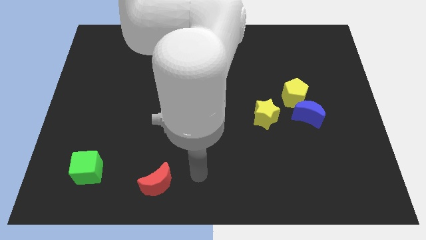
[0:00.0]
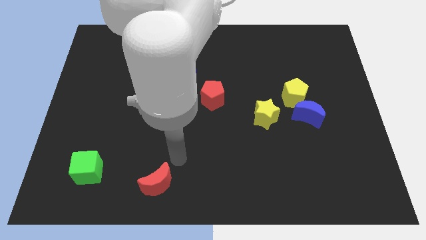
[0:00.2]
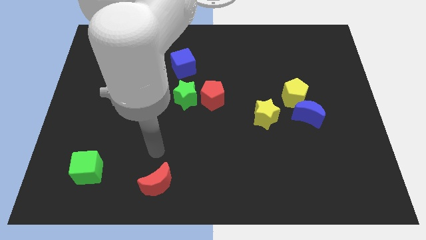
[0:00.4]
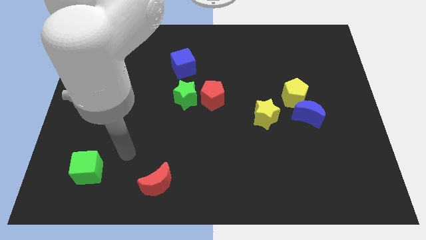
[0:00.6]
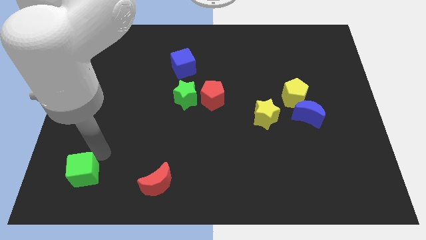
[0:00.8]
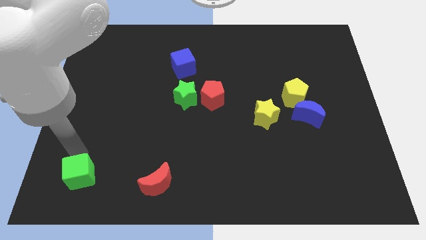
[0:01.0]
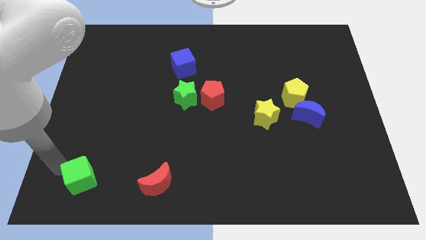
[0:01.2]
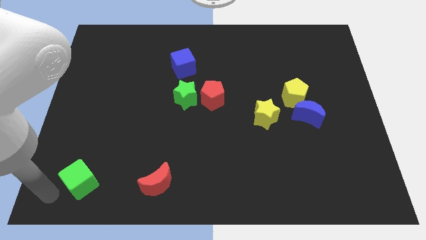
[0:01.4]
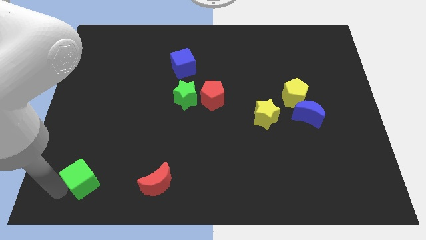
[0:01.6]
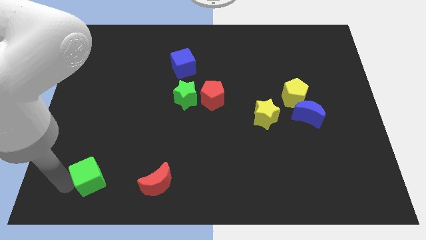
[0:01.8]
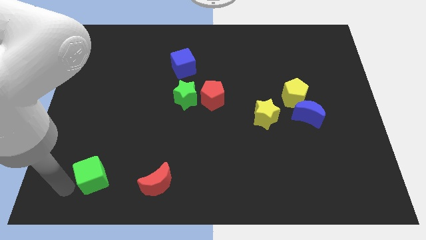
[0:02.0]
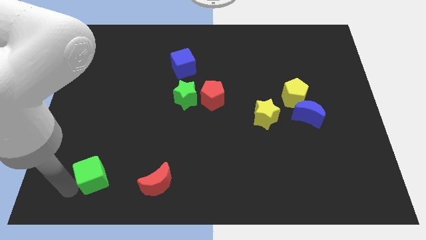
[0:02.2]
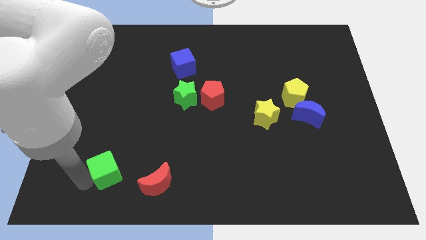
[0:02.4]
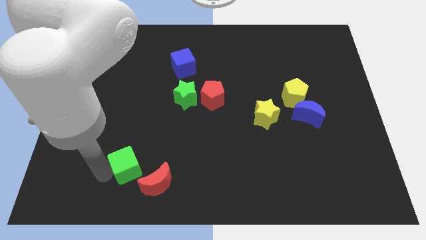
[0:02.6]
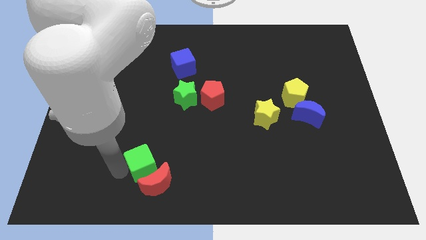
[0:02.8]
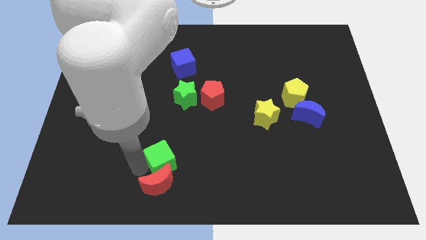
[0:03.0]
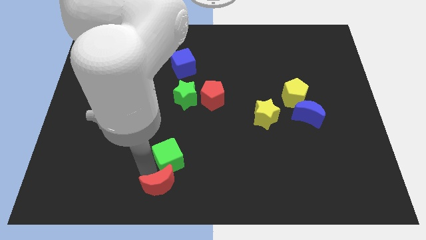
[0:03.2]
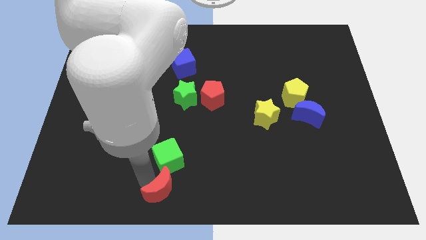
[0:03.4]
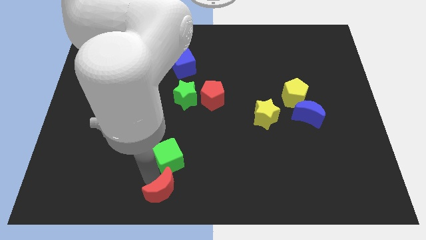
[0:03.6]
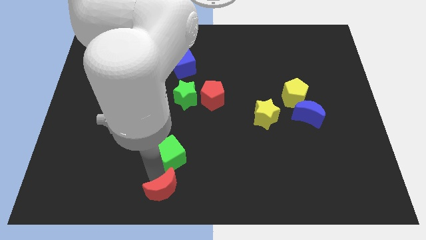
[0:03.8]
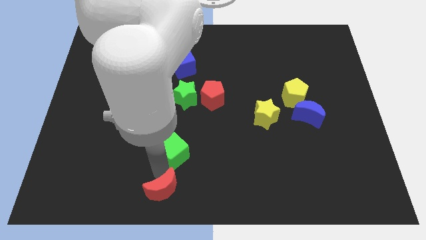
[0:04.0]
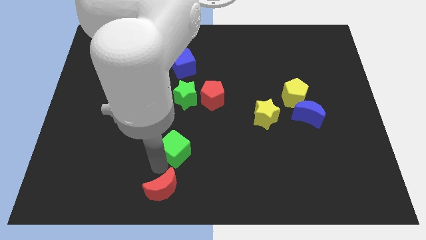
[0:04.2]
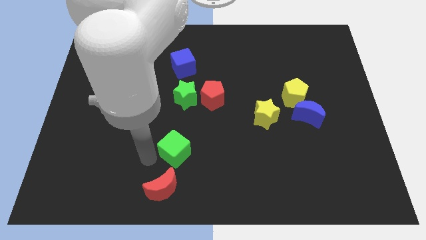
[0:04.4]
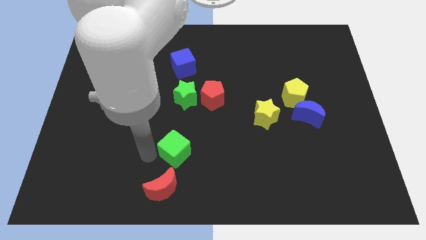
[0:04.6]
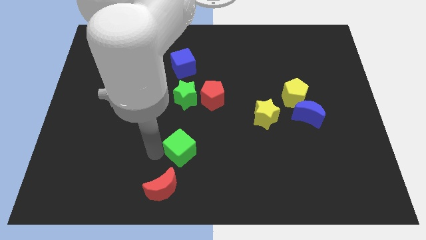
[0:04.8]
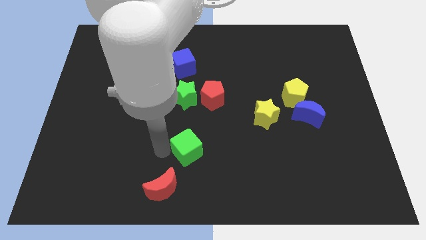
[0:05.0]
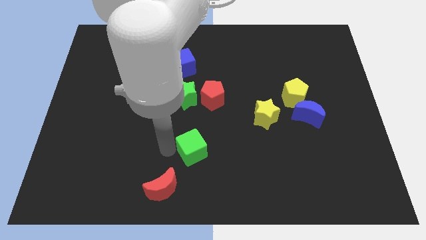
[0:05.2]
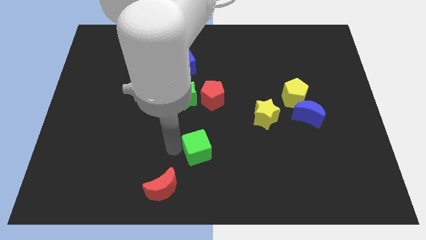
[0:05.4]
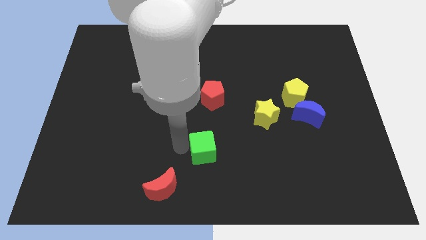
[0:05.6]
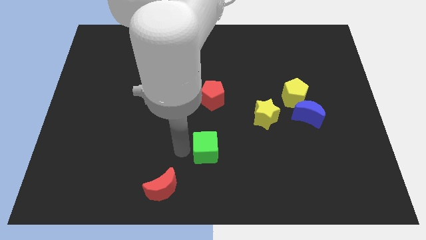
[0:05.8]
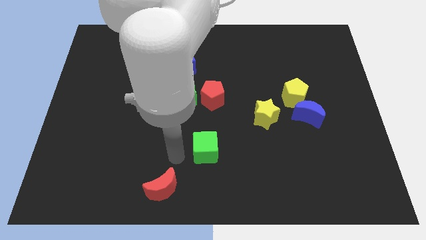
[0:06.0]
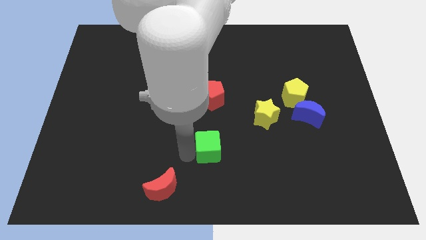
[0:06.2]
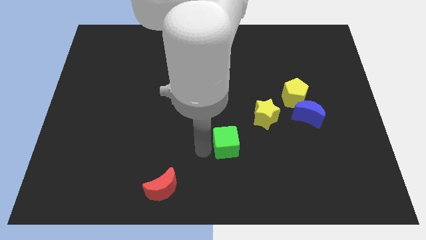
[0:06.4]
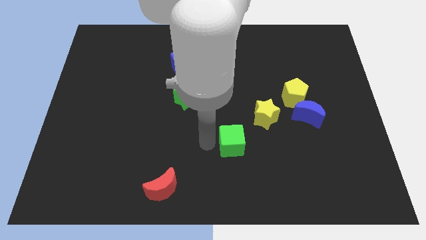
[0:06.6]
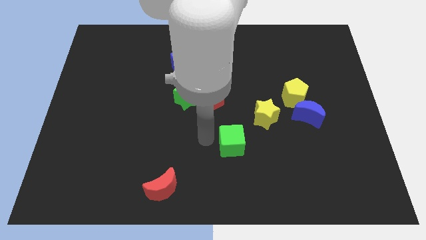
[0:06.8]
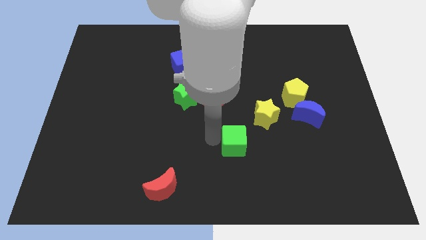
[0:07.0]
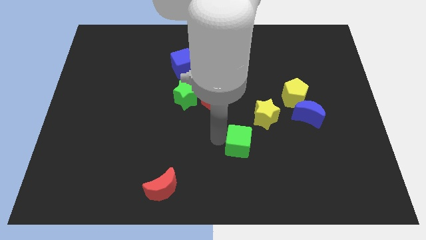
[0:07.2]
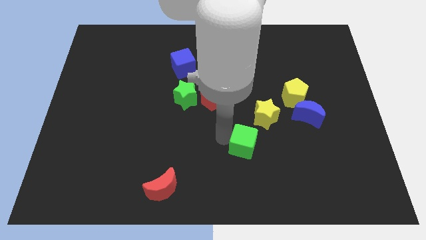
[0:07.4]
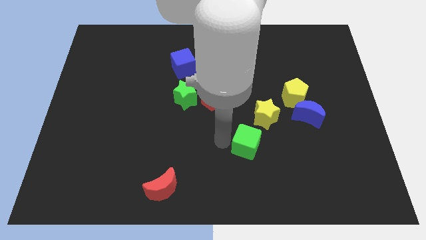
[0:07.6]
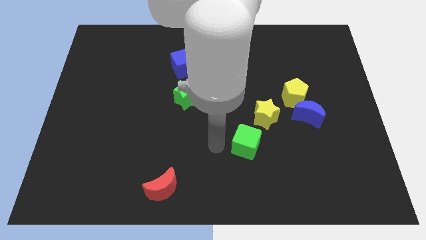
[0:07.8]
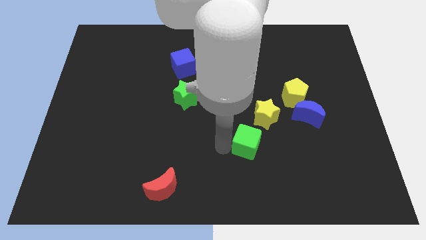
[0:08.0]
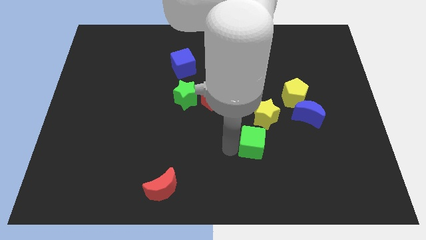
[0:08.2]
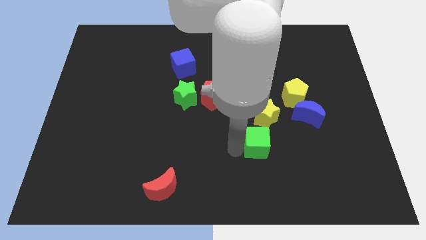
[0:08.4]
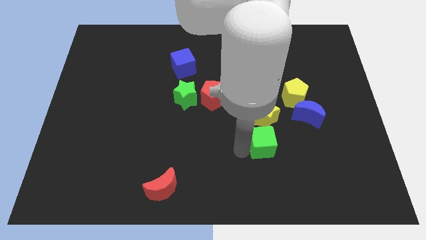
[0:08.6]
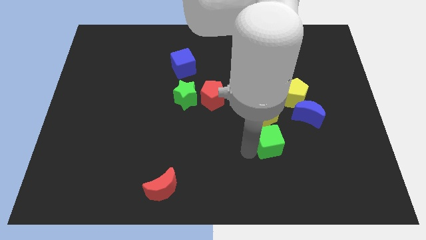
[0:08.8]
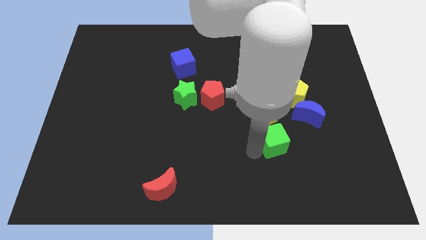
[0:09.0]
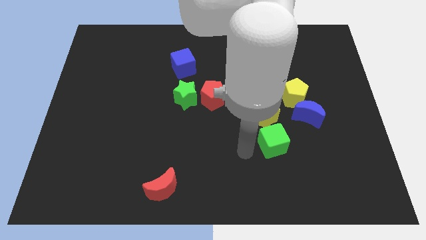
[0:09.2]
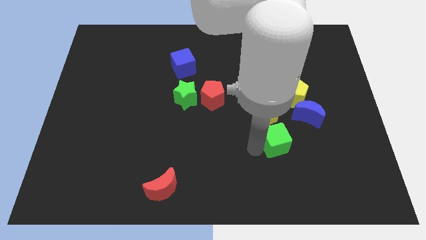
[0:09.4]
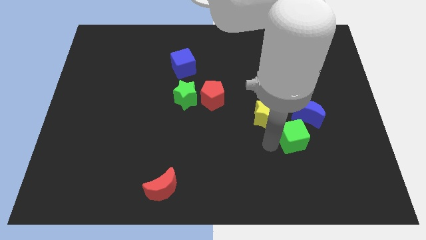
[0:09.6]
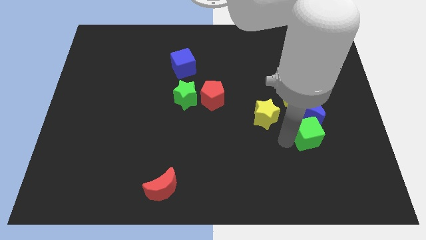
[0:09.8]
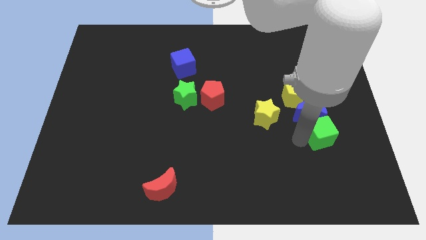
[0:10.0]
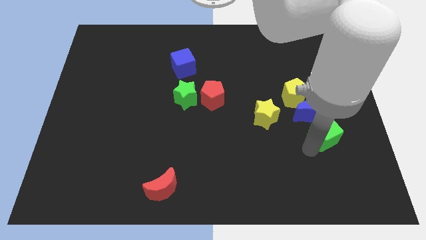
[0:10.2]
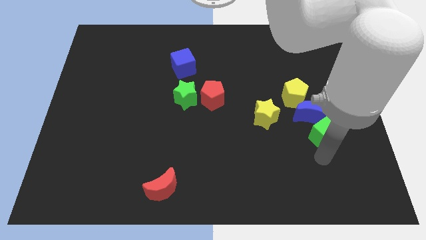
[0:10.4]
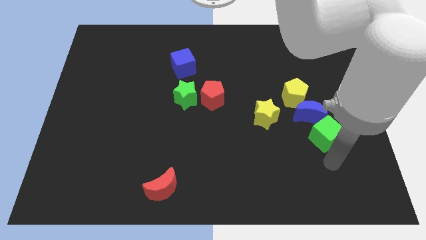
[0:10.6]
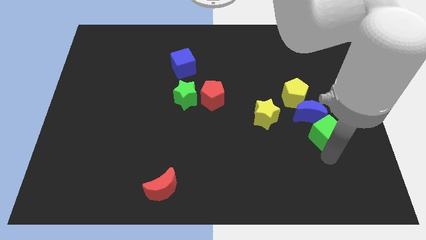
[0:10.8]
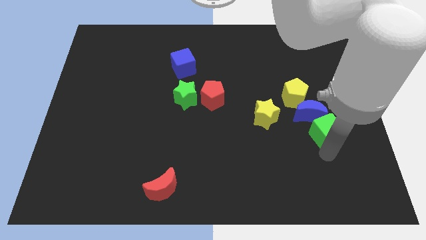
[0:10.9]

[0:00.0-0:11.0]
put the green cube to the bottom right of the yellow pentagon

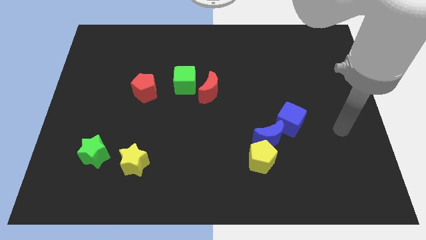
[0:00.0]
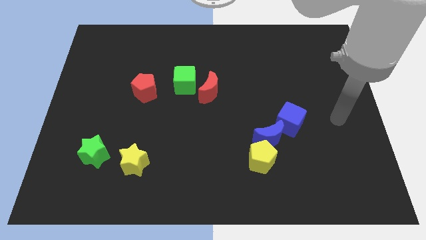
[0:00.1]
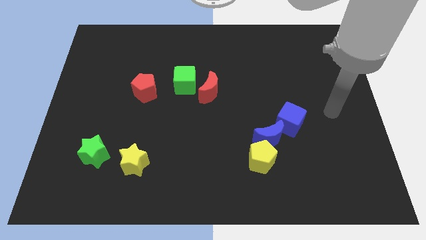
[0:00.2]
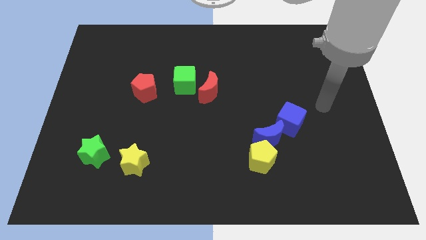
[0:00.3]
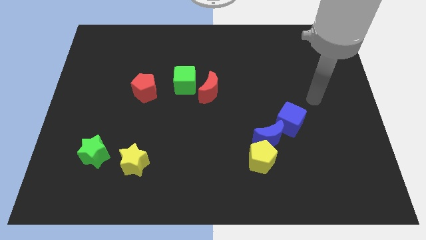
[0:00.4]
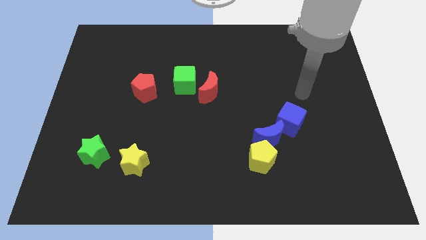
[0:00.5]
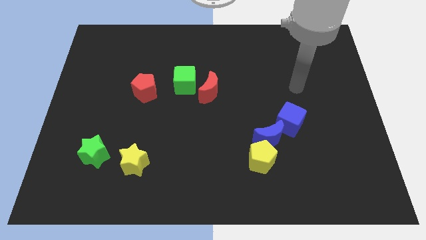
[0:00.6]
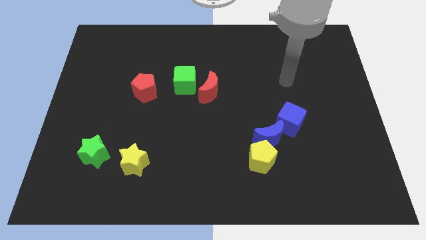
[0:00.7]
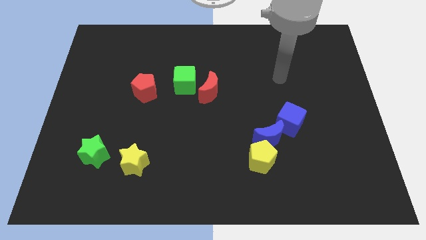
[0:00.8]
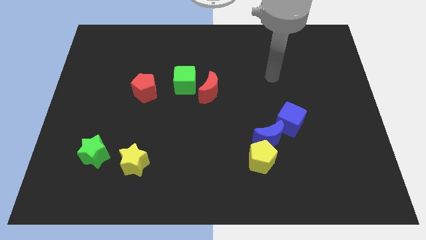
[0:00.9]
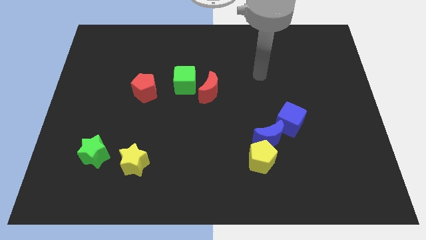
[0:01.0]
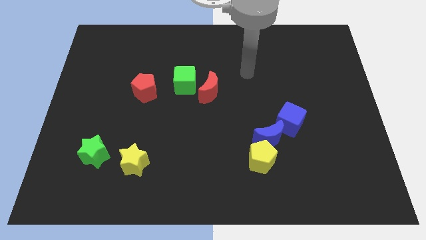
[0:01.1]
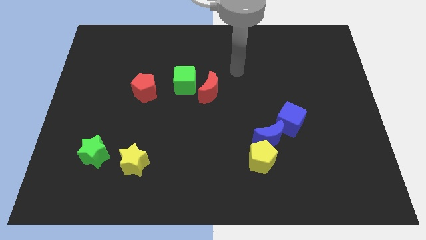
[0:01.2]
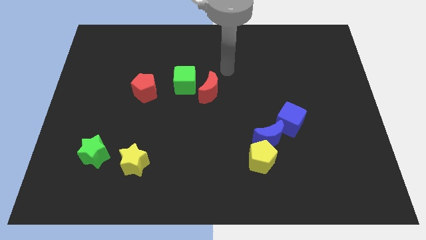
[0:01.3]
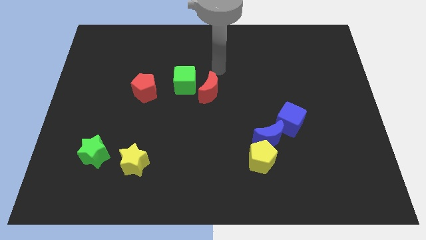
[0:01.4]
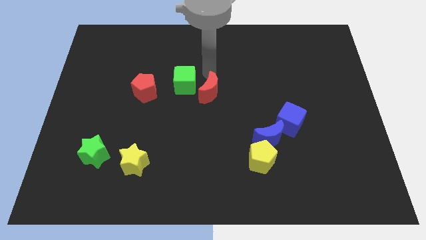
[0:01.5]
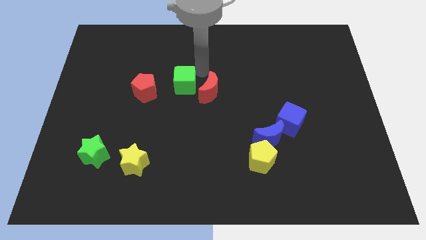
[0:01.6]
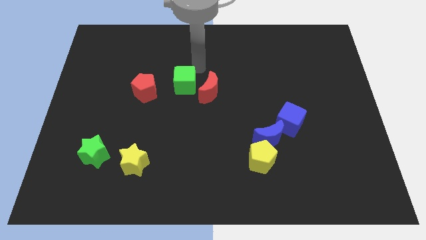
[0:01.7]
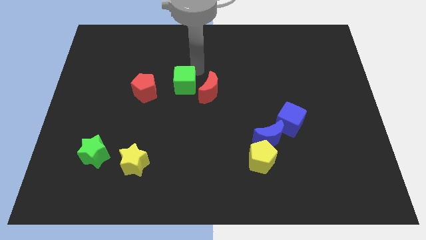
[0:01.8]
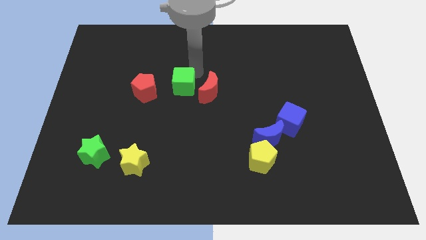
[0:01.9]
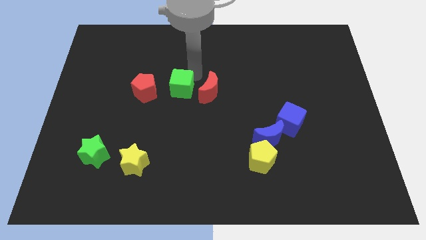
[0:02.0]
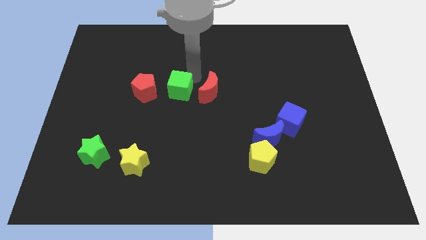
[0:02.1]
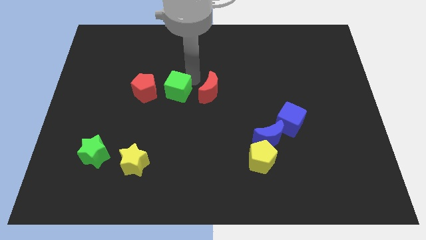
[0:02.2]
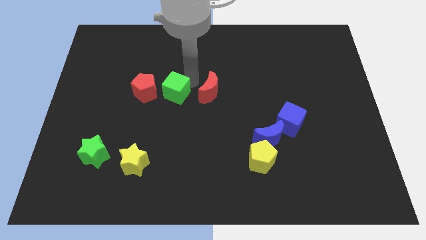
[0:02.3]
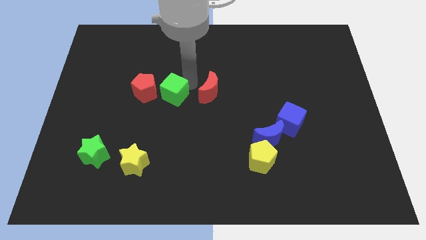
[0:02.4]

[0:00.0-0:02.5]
slide the green cube to the bottom right of the red pentagon
